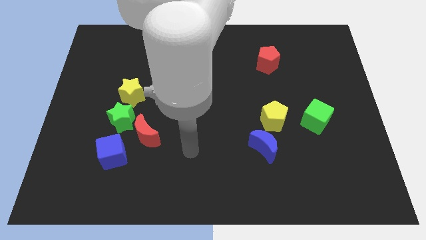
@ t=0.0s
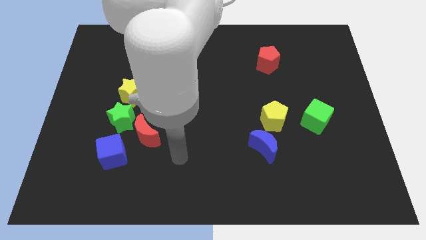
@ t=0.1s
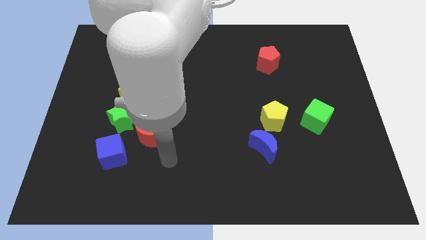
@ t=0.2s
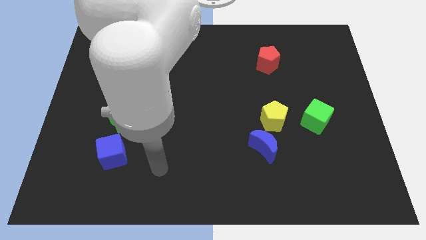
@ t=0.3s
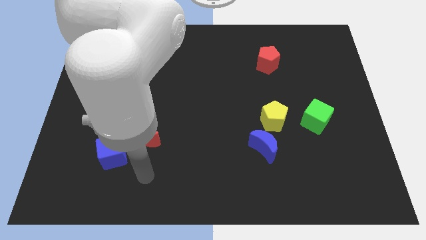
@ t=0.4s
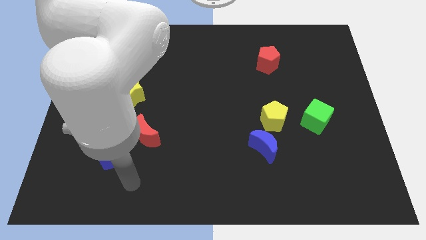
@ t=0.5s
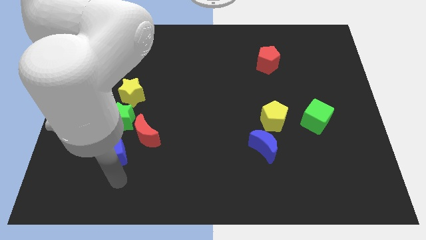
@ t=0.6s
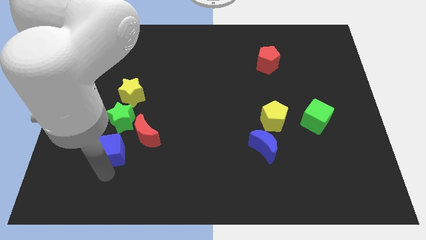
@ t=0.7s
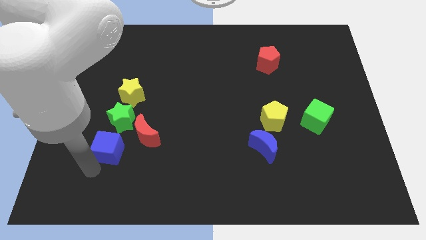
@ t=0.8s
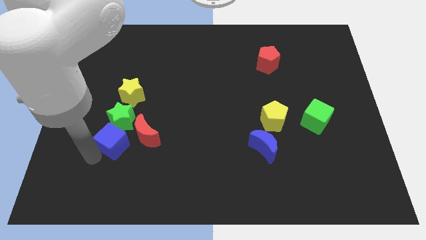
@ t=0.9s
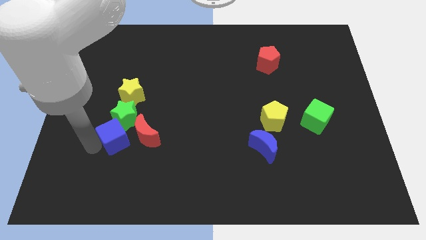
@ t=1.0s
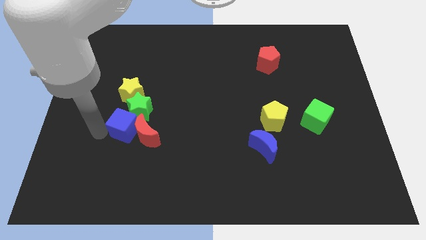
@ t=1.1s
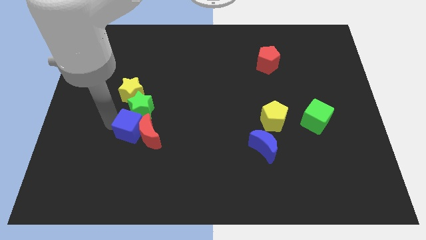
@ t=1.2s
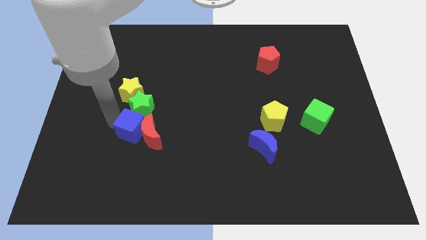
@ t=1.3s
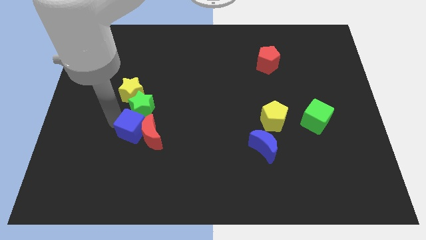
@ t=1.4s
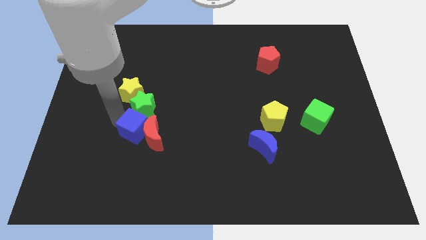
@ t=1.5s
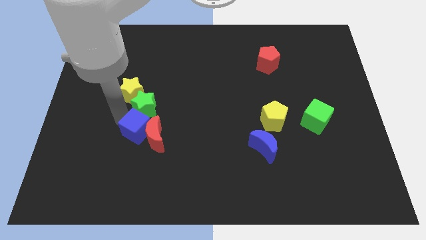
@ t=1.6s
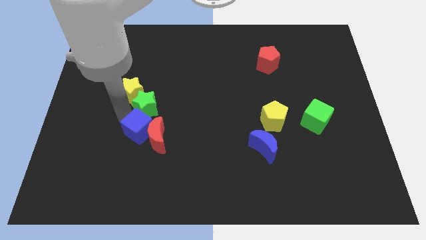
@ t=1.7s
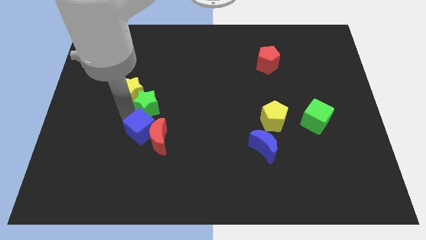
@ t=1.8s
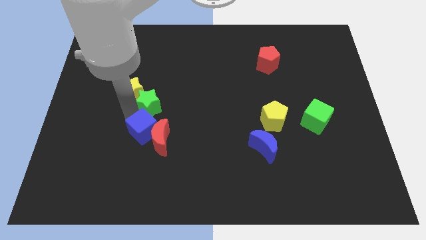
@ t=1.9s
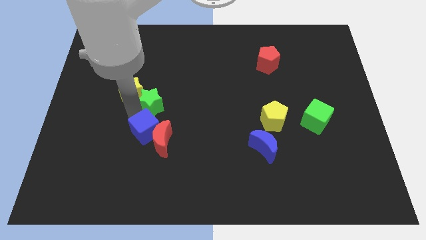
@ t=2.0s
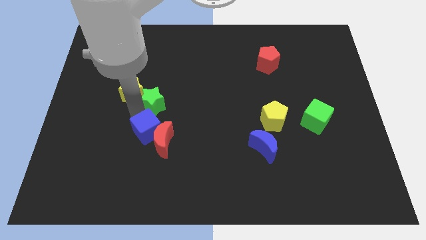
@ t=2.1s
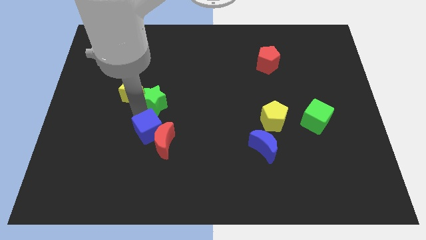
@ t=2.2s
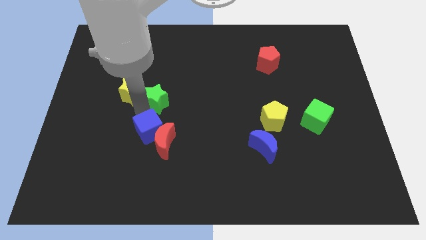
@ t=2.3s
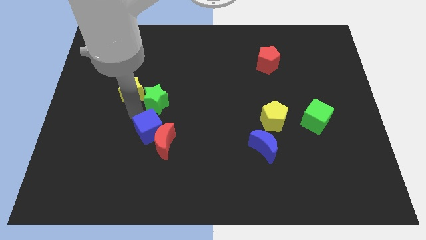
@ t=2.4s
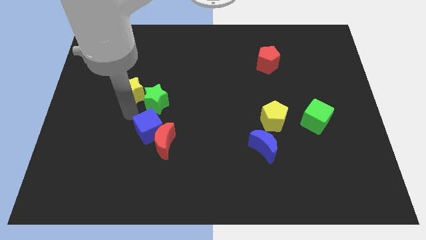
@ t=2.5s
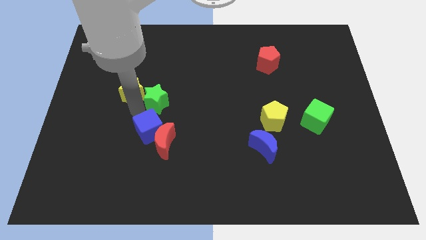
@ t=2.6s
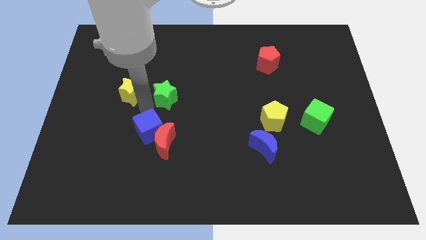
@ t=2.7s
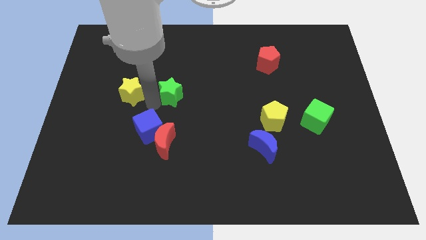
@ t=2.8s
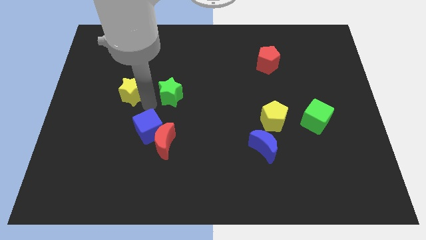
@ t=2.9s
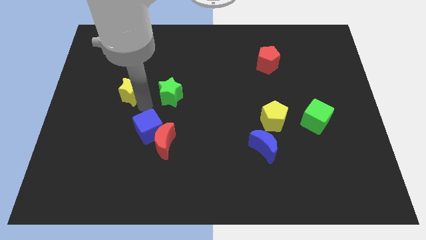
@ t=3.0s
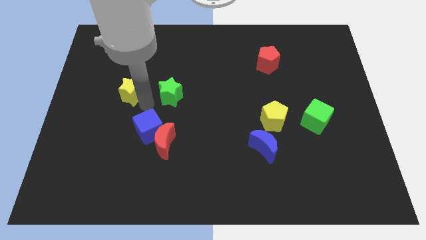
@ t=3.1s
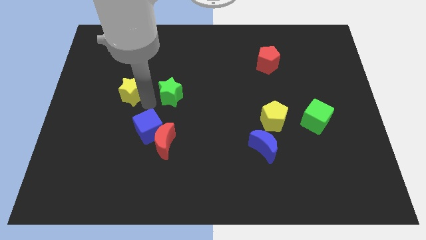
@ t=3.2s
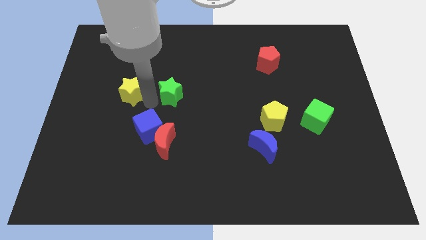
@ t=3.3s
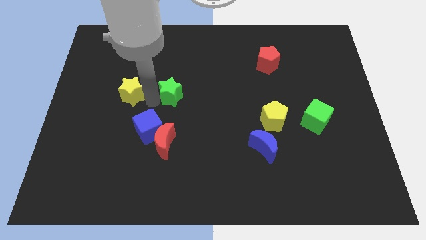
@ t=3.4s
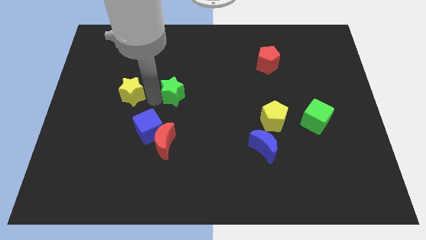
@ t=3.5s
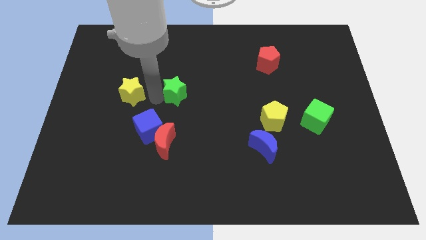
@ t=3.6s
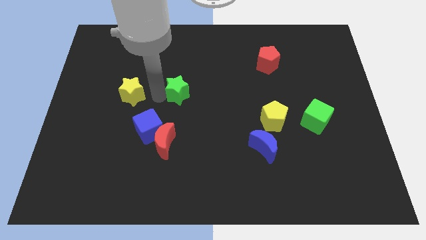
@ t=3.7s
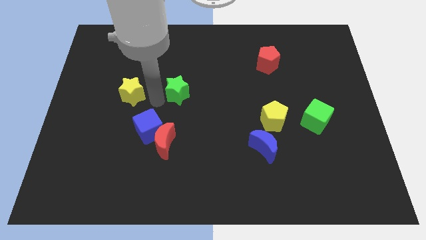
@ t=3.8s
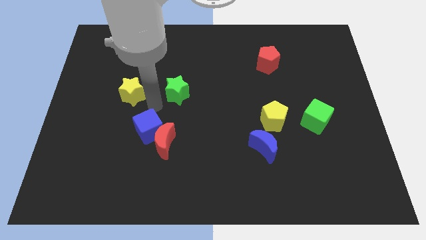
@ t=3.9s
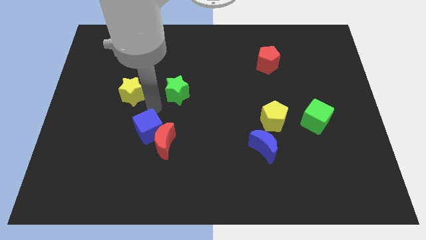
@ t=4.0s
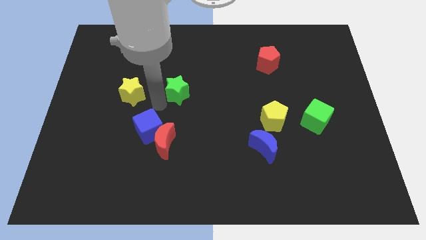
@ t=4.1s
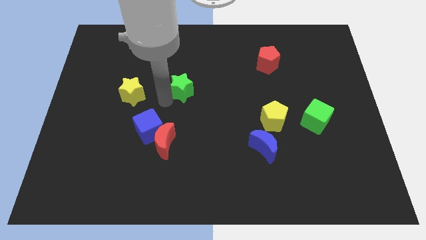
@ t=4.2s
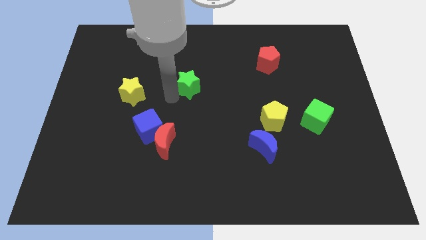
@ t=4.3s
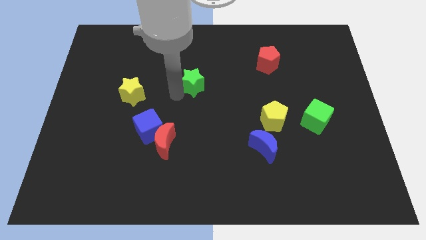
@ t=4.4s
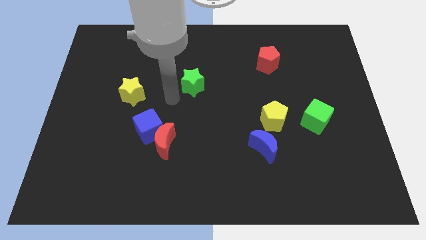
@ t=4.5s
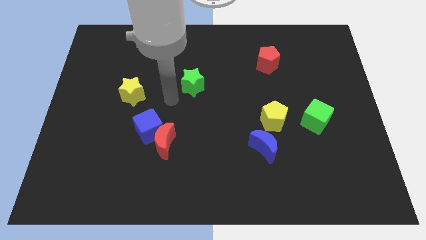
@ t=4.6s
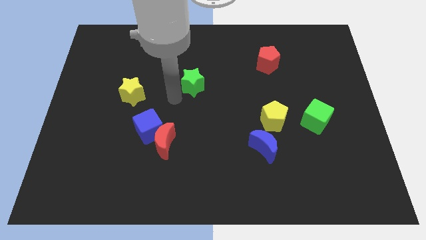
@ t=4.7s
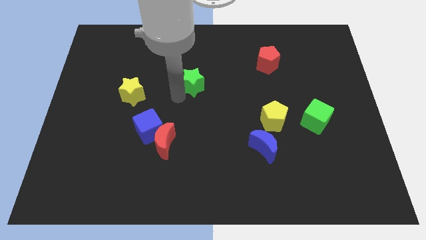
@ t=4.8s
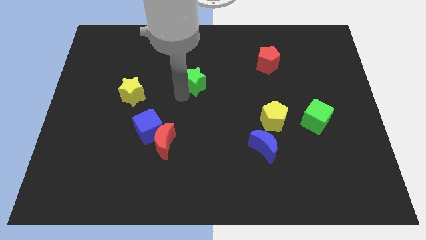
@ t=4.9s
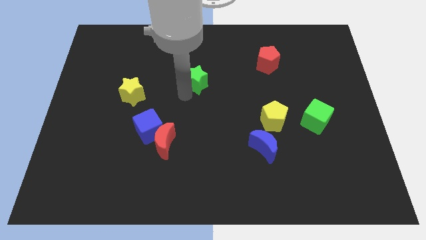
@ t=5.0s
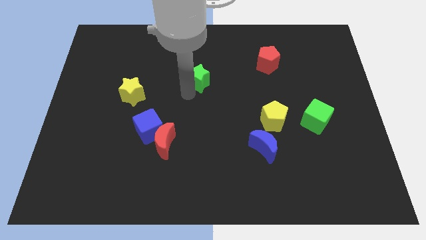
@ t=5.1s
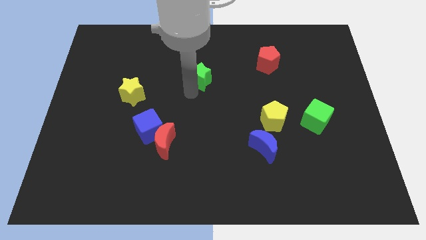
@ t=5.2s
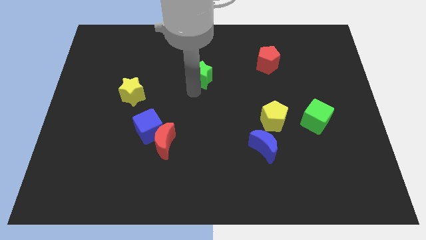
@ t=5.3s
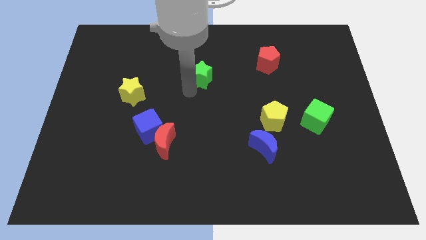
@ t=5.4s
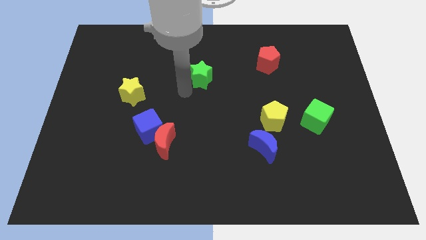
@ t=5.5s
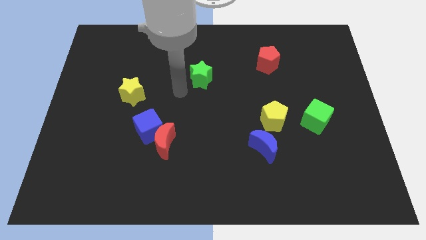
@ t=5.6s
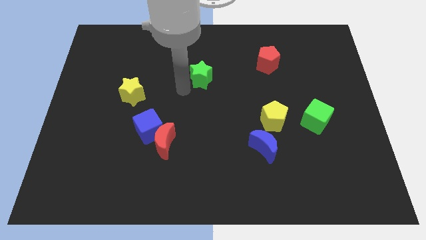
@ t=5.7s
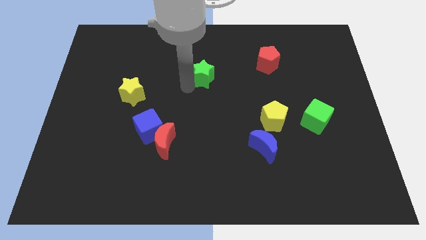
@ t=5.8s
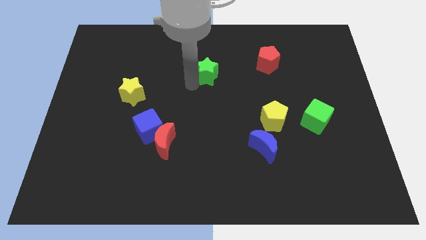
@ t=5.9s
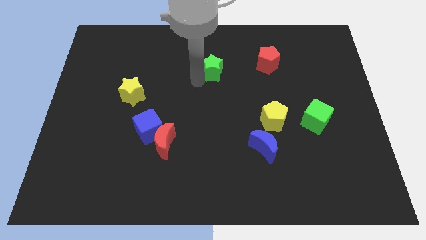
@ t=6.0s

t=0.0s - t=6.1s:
move the green star to the left of the red pentagon

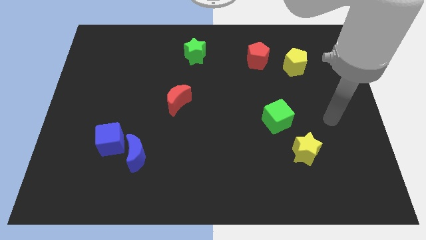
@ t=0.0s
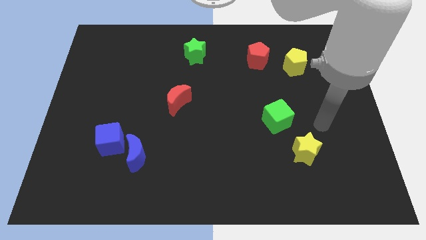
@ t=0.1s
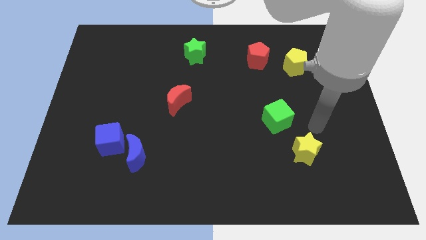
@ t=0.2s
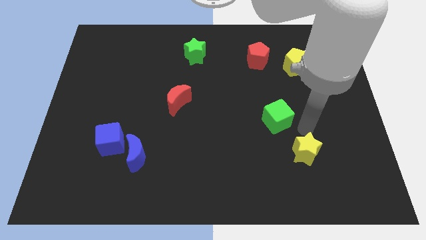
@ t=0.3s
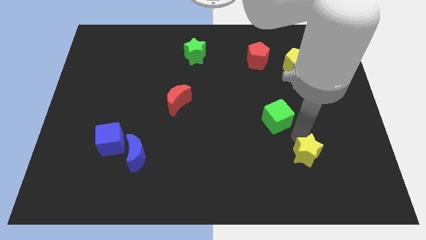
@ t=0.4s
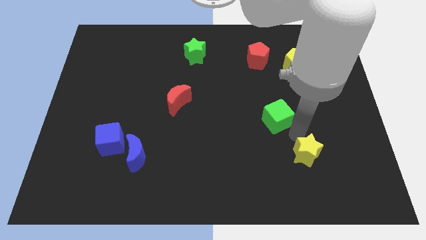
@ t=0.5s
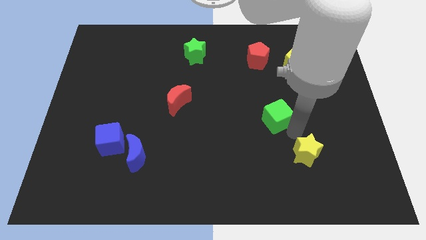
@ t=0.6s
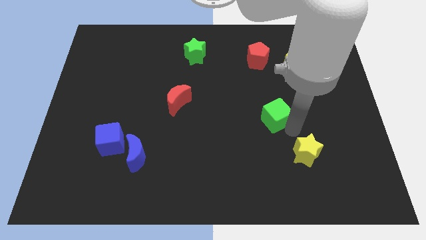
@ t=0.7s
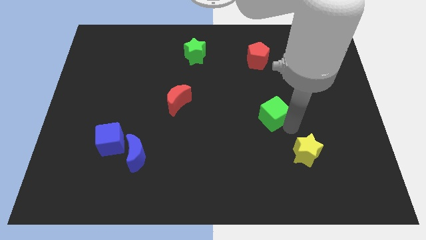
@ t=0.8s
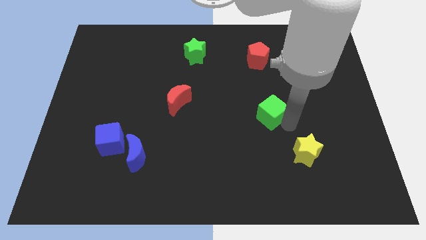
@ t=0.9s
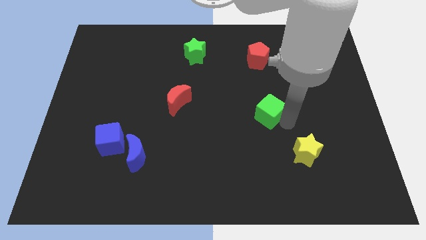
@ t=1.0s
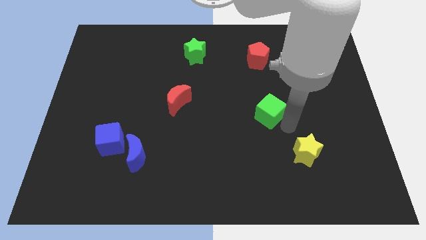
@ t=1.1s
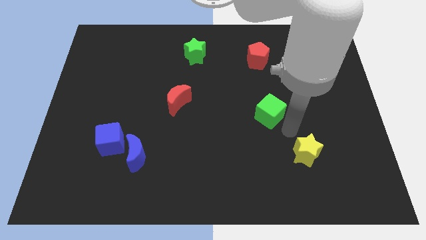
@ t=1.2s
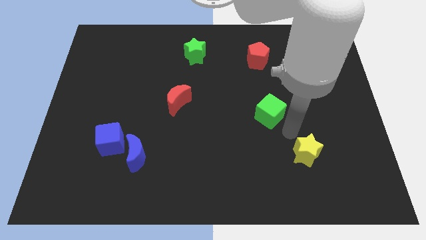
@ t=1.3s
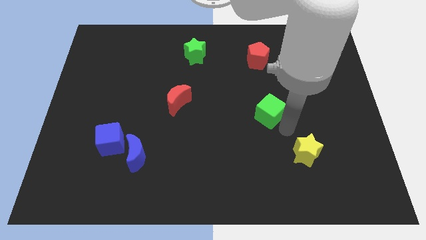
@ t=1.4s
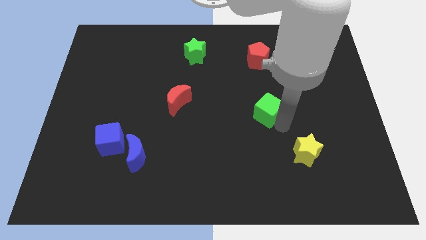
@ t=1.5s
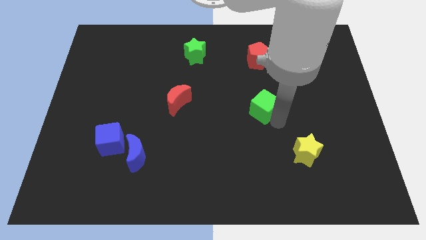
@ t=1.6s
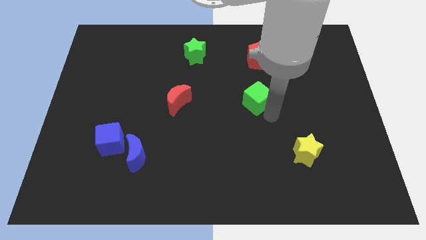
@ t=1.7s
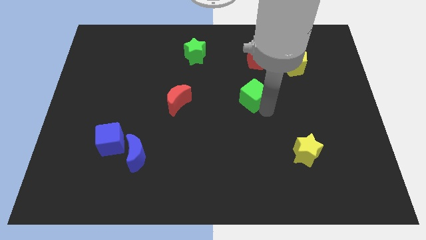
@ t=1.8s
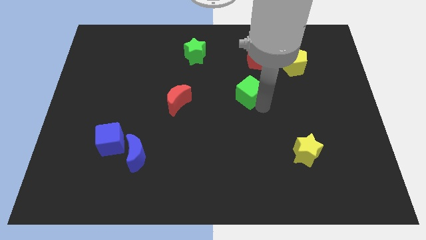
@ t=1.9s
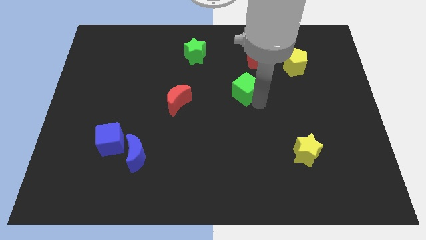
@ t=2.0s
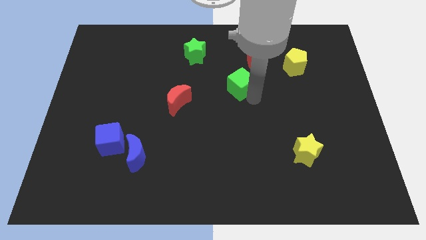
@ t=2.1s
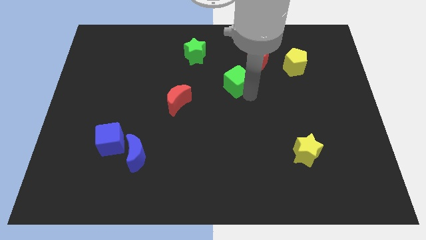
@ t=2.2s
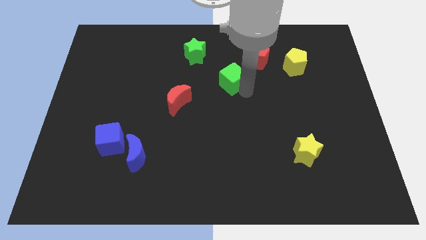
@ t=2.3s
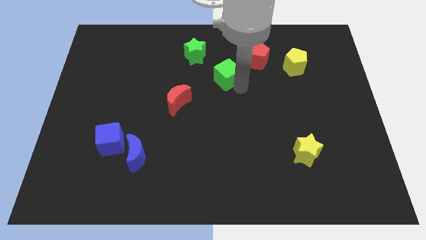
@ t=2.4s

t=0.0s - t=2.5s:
push the green cube to the bottom right side of the green star
